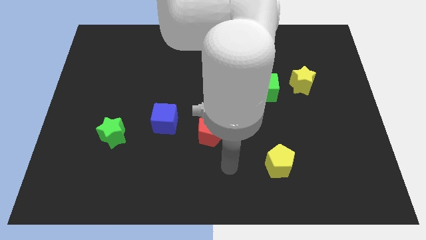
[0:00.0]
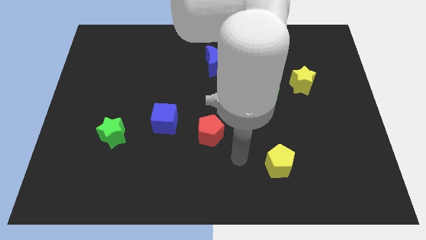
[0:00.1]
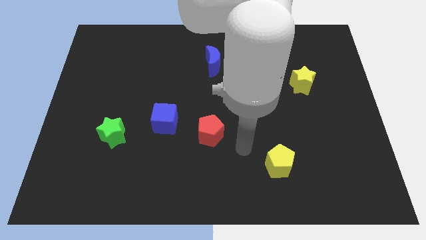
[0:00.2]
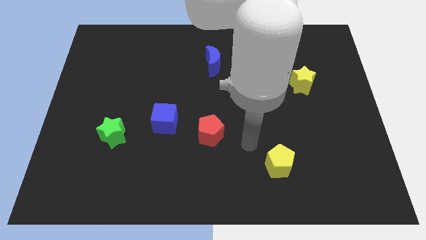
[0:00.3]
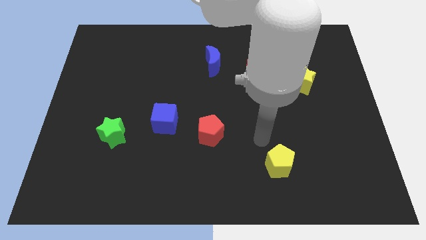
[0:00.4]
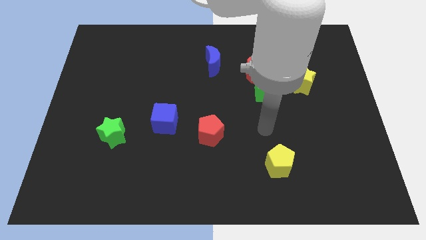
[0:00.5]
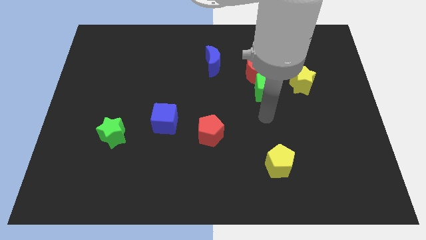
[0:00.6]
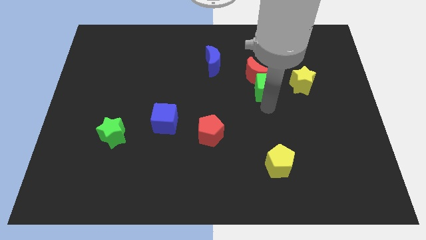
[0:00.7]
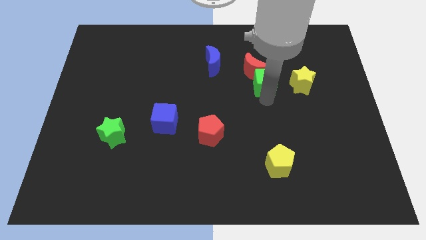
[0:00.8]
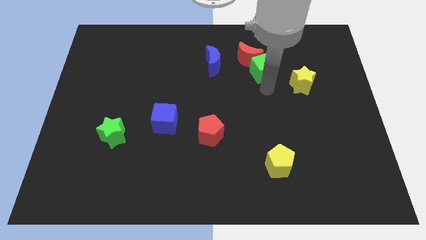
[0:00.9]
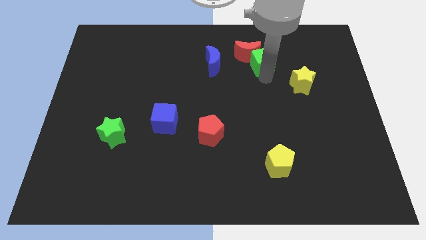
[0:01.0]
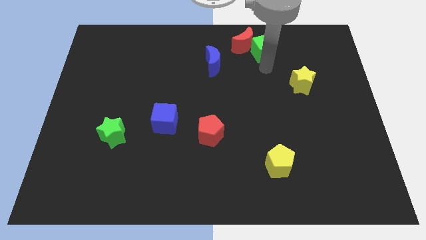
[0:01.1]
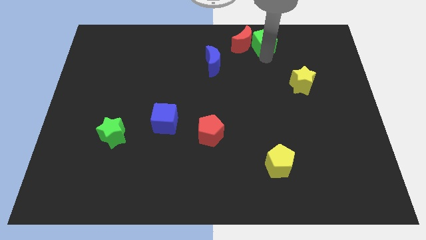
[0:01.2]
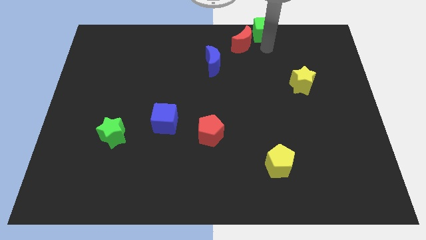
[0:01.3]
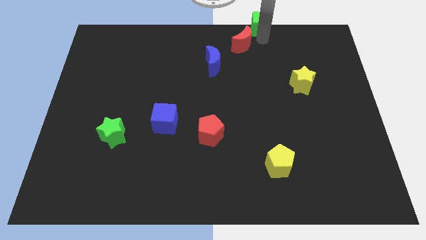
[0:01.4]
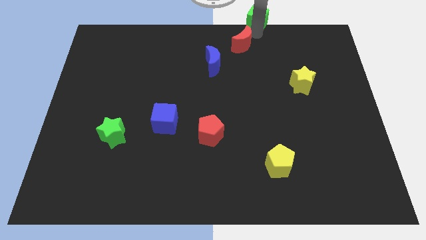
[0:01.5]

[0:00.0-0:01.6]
separate the red moon from the green cube

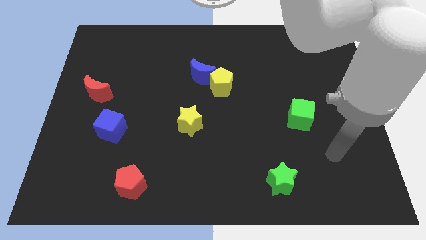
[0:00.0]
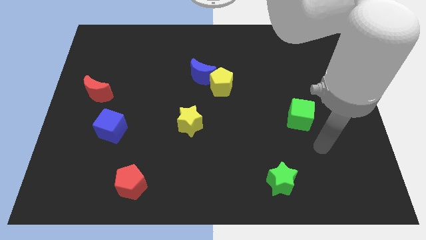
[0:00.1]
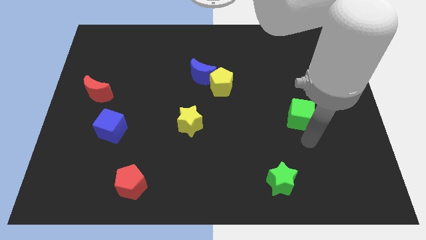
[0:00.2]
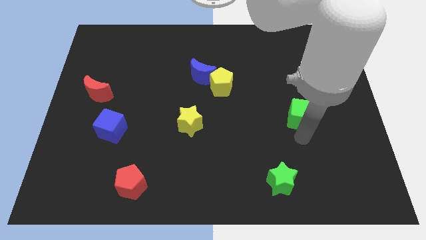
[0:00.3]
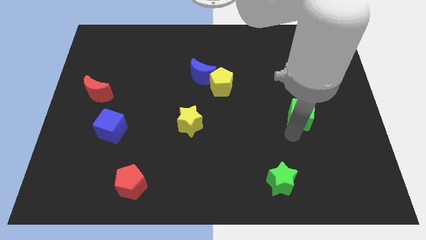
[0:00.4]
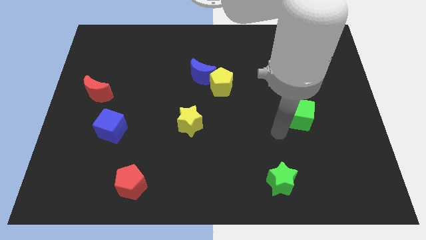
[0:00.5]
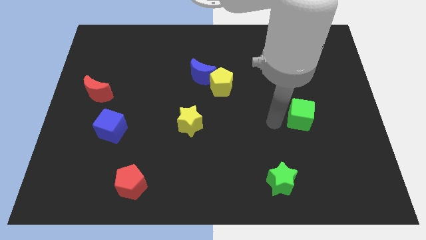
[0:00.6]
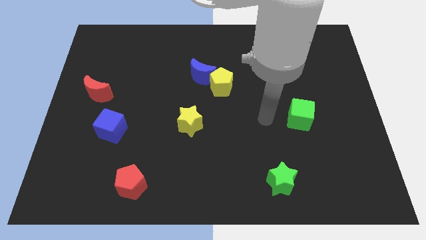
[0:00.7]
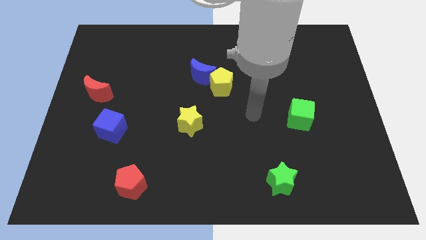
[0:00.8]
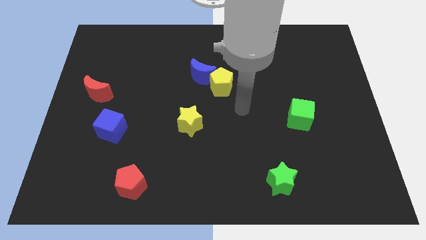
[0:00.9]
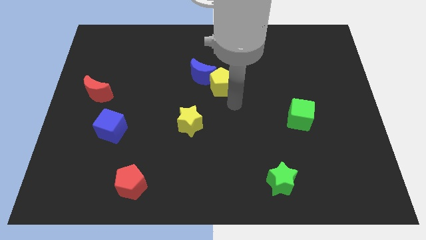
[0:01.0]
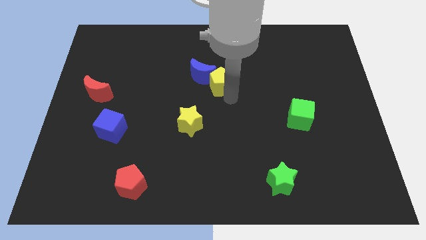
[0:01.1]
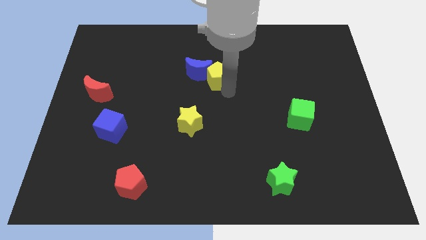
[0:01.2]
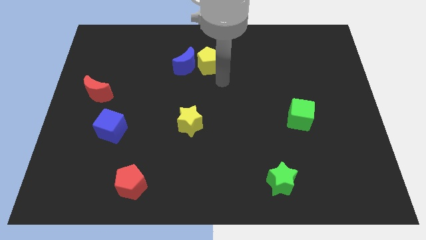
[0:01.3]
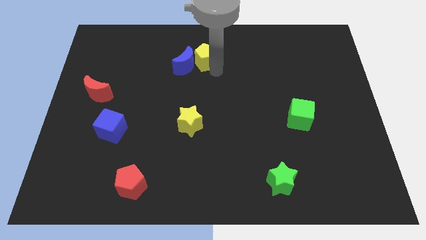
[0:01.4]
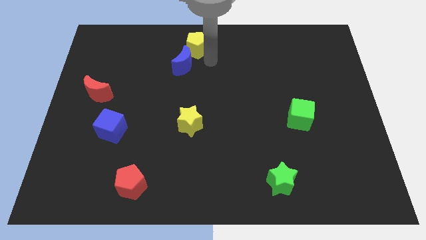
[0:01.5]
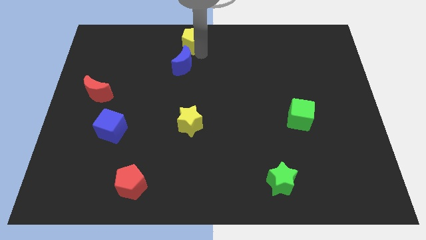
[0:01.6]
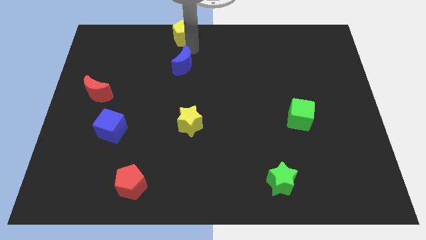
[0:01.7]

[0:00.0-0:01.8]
move the blue moon away from the yellow pentagon

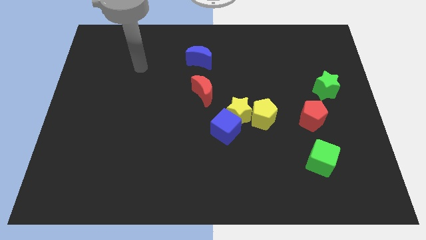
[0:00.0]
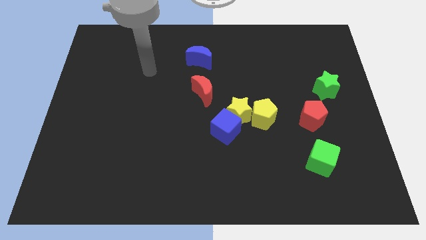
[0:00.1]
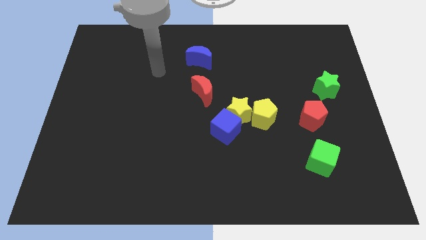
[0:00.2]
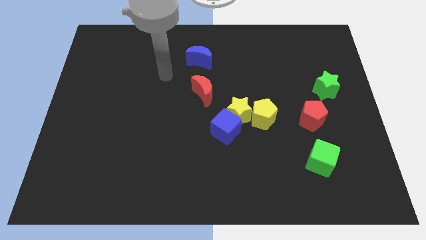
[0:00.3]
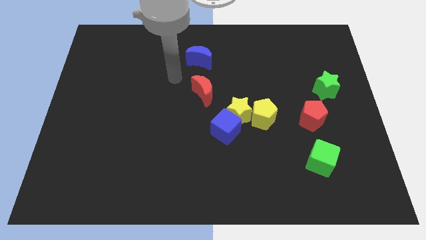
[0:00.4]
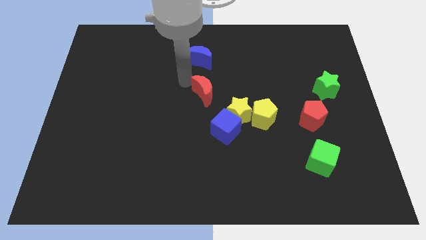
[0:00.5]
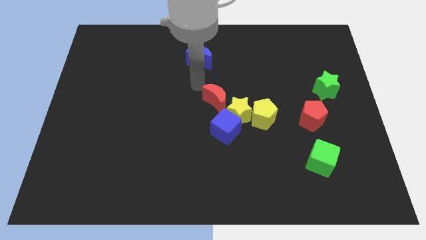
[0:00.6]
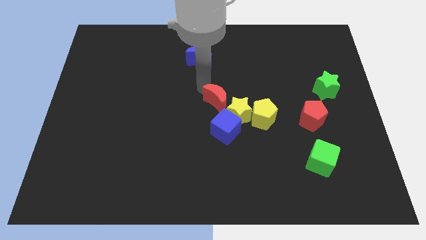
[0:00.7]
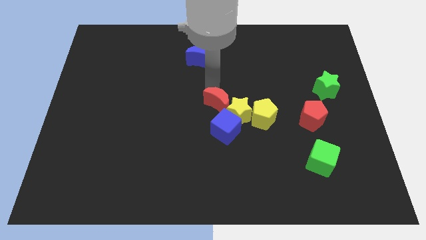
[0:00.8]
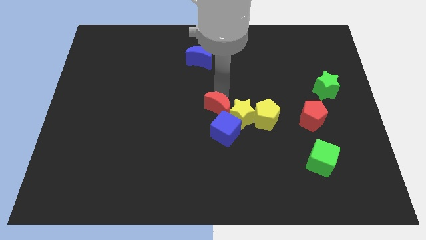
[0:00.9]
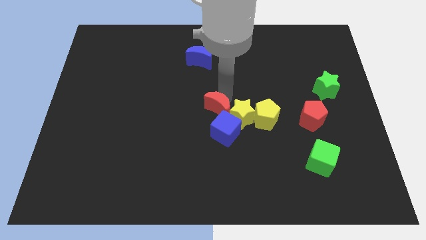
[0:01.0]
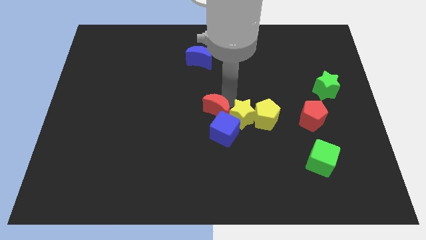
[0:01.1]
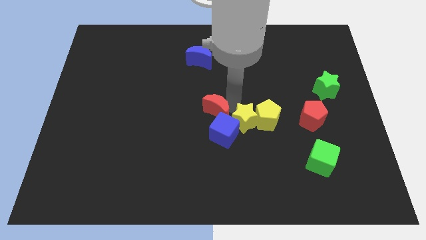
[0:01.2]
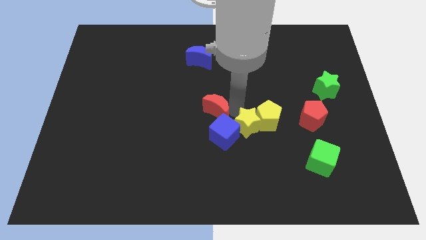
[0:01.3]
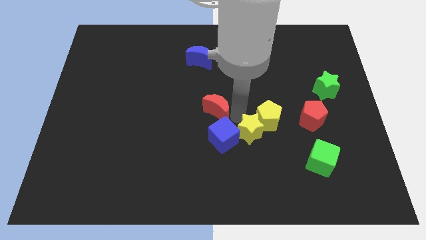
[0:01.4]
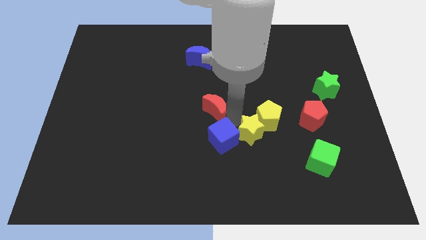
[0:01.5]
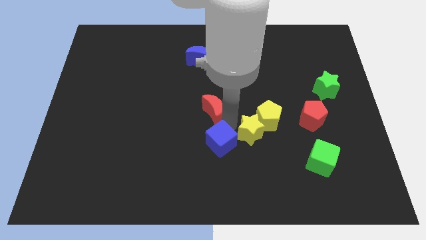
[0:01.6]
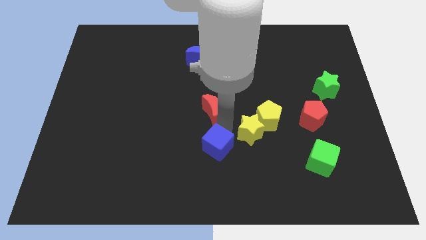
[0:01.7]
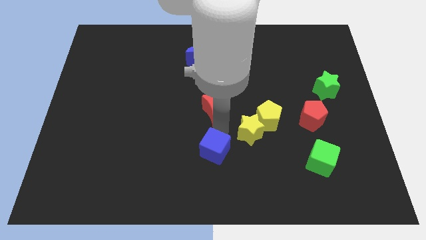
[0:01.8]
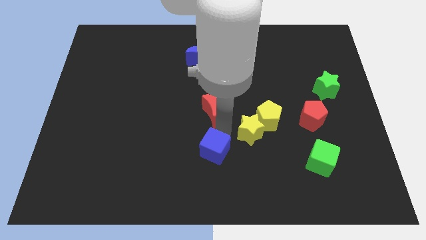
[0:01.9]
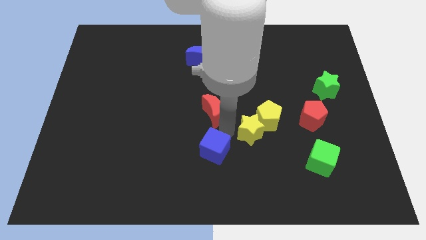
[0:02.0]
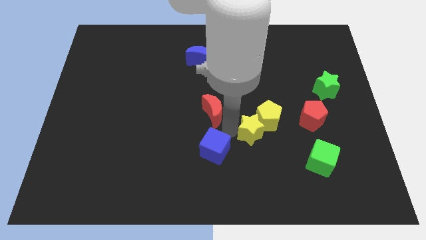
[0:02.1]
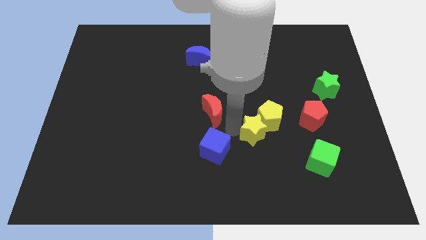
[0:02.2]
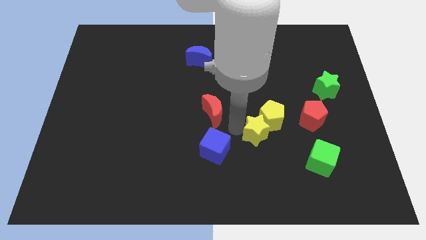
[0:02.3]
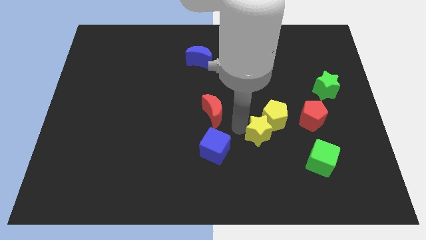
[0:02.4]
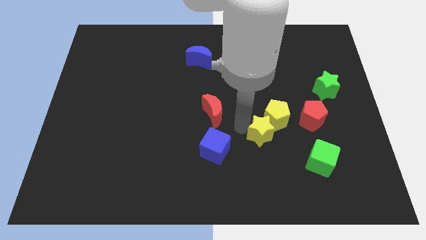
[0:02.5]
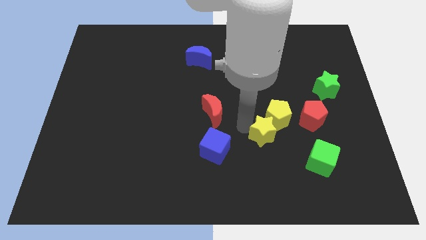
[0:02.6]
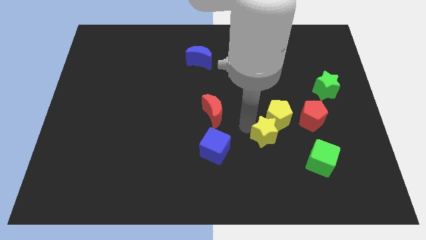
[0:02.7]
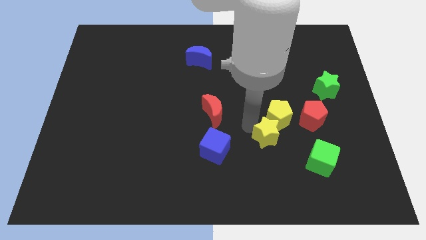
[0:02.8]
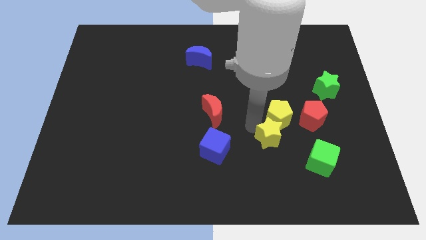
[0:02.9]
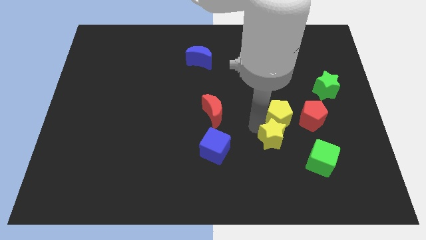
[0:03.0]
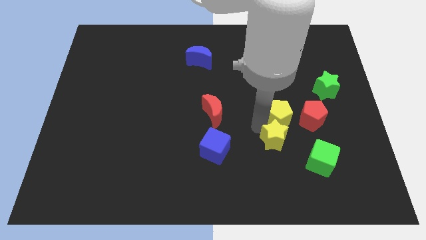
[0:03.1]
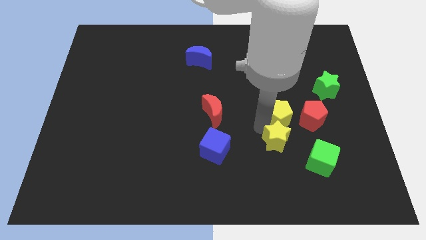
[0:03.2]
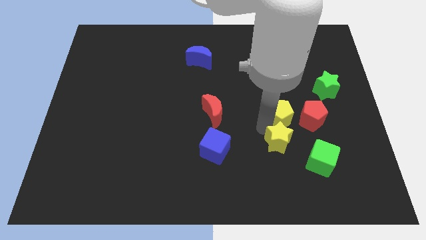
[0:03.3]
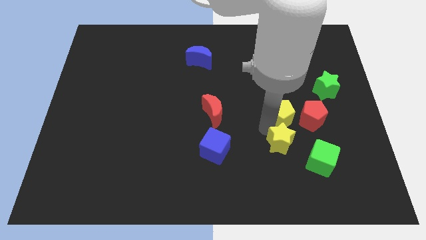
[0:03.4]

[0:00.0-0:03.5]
pull the yellow star apart from the blue cube, yellow pentagon, and red moon

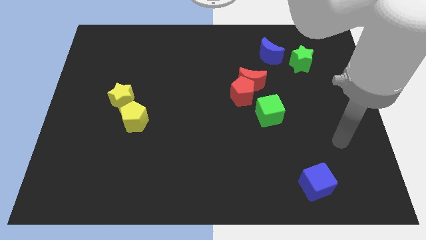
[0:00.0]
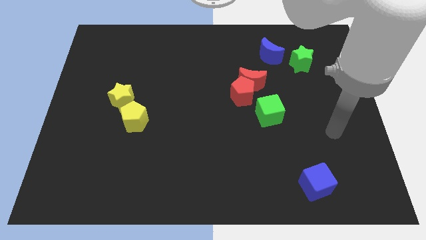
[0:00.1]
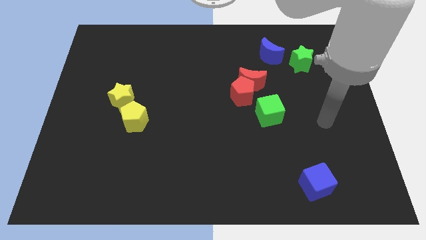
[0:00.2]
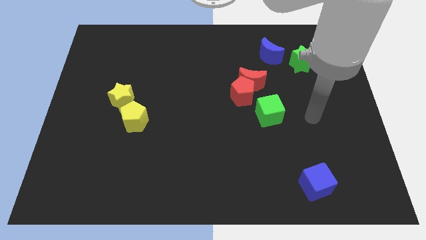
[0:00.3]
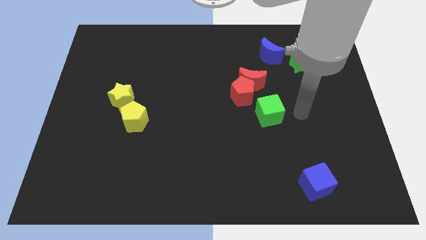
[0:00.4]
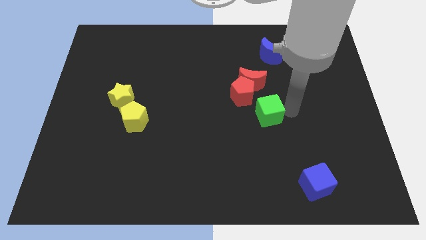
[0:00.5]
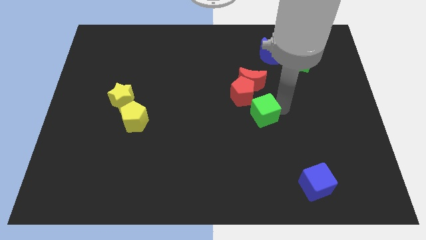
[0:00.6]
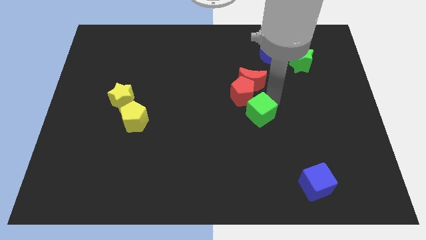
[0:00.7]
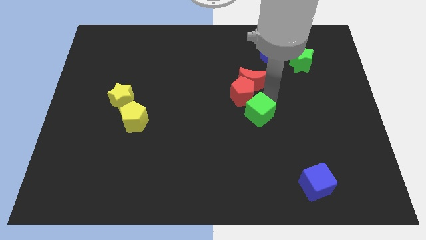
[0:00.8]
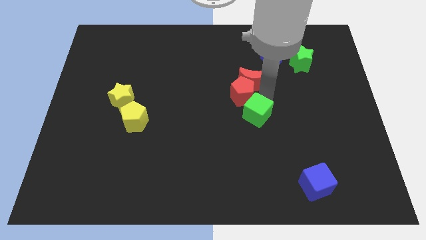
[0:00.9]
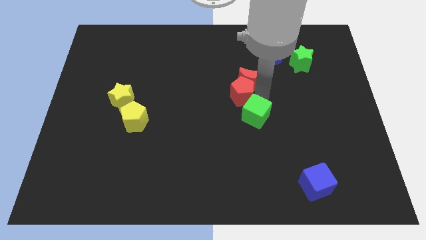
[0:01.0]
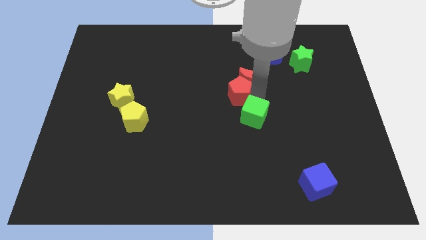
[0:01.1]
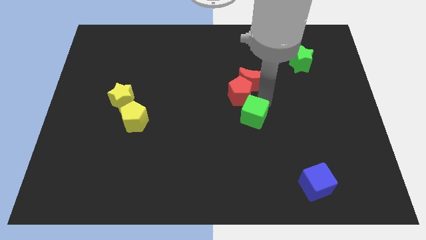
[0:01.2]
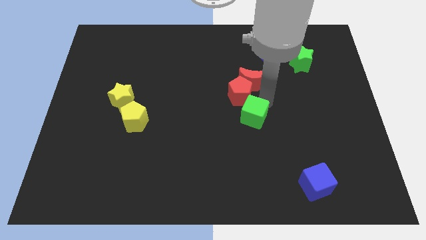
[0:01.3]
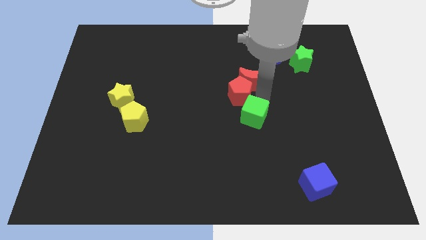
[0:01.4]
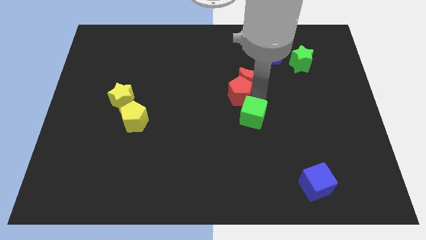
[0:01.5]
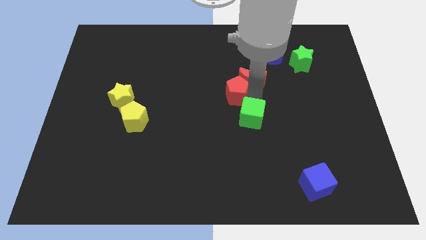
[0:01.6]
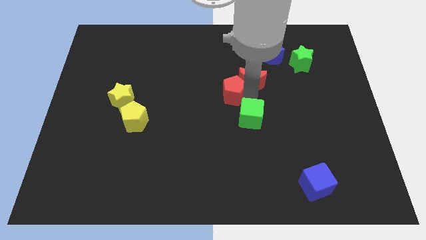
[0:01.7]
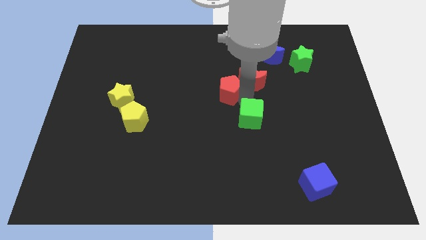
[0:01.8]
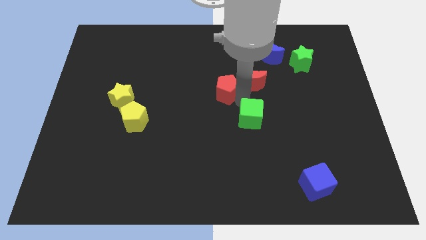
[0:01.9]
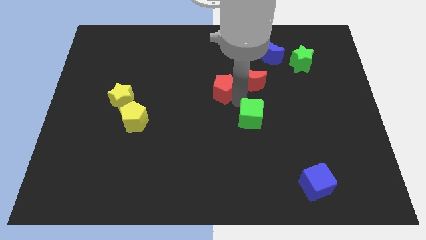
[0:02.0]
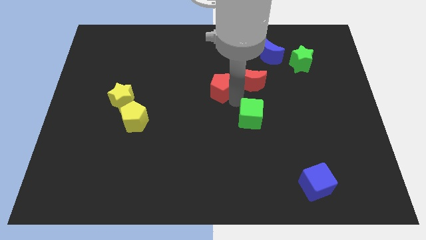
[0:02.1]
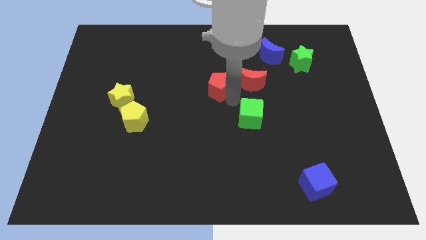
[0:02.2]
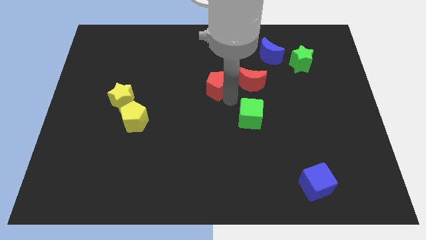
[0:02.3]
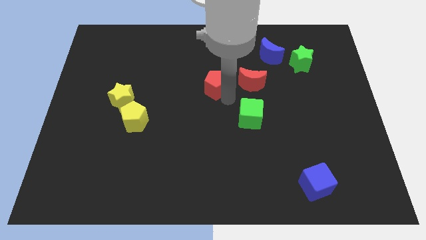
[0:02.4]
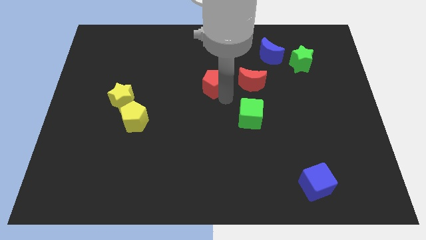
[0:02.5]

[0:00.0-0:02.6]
separate the red pentagon from the red moon and green cube
